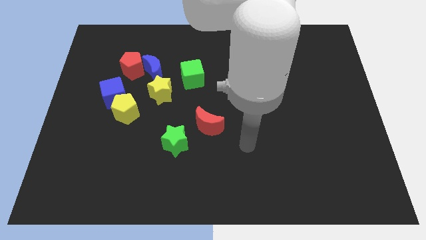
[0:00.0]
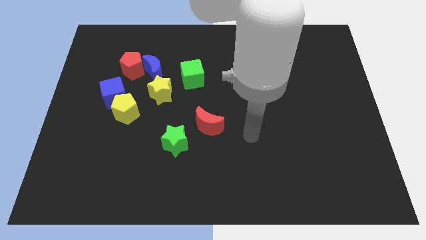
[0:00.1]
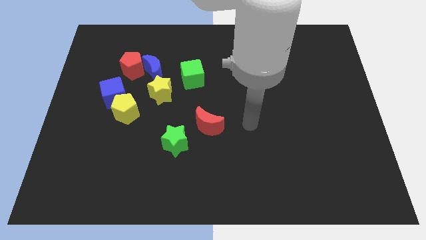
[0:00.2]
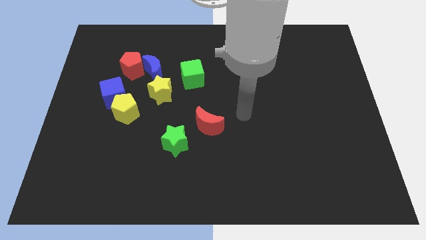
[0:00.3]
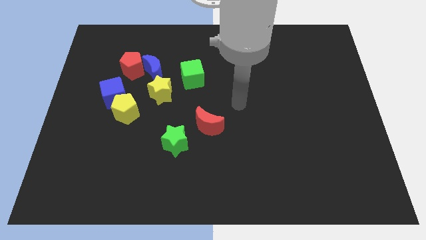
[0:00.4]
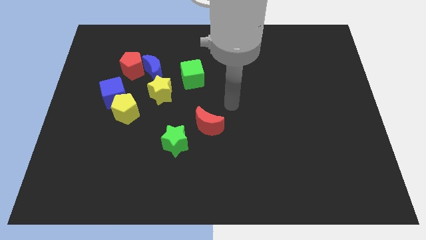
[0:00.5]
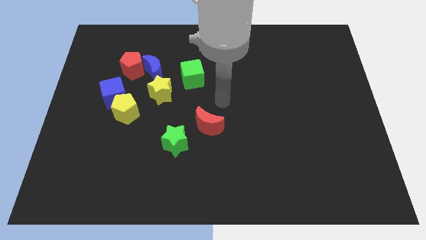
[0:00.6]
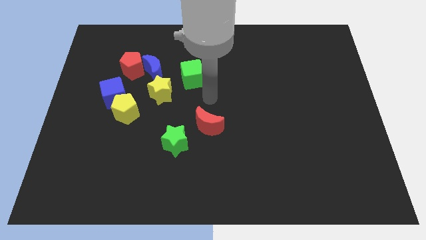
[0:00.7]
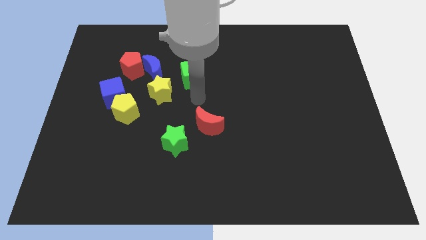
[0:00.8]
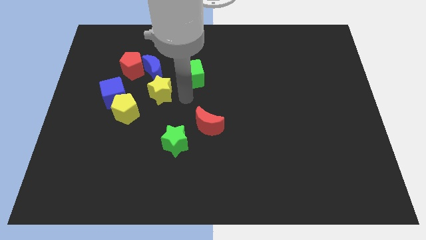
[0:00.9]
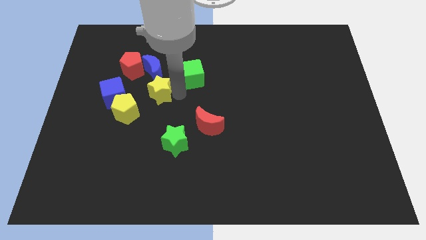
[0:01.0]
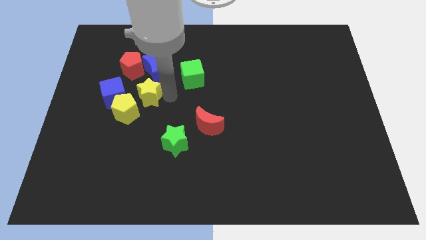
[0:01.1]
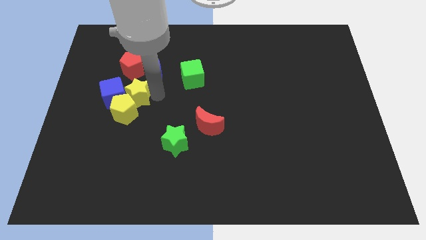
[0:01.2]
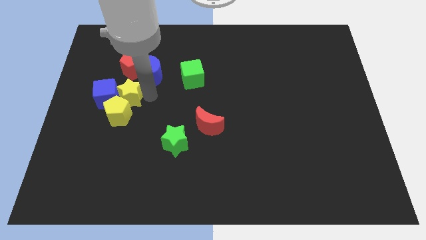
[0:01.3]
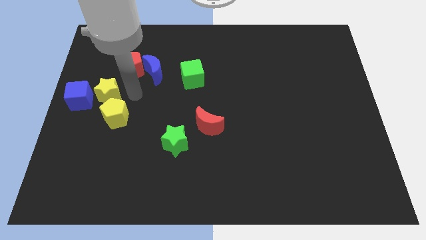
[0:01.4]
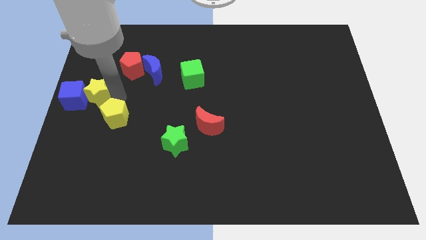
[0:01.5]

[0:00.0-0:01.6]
pull the yellow pentagon apart from the blue cube and yellow star

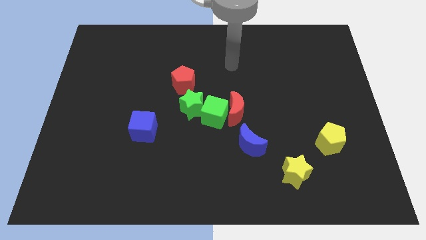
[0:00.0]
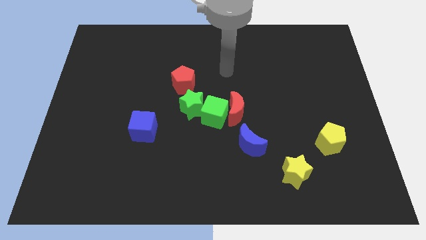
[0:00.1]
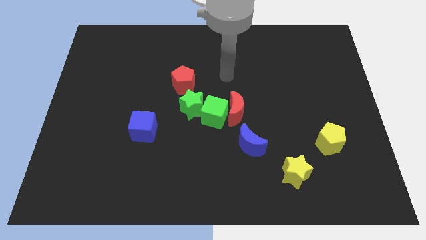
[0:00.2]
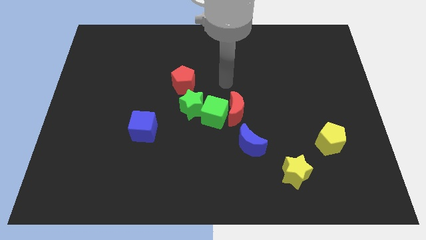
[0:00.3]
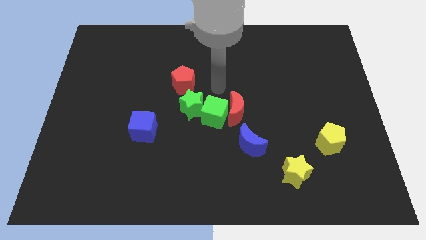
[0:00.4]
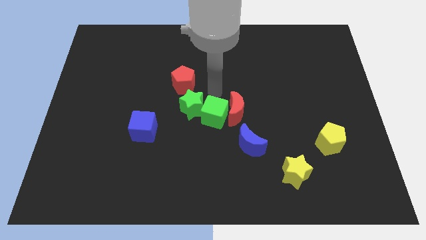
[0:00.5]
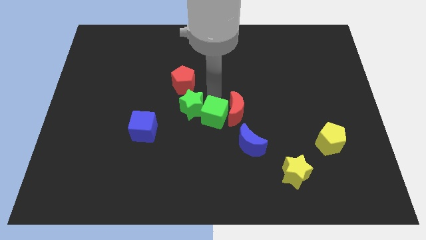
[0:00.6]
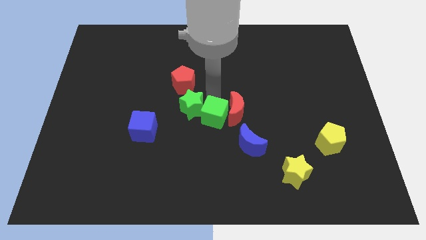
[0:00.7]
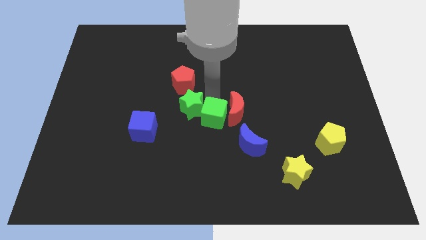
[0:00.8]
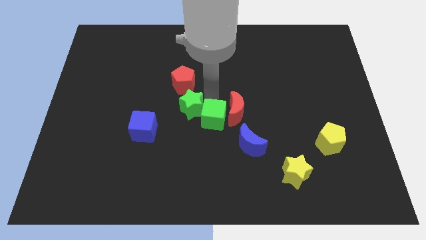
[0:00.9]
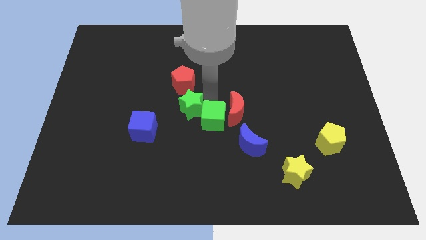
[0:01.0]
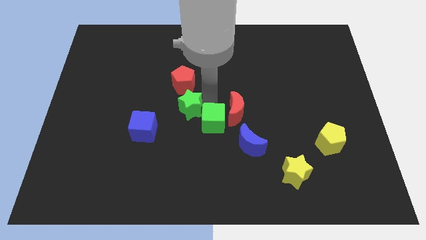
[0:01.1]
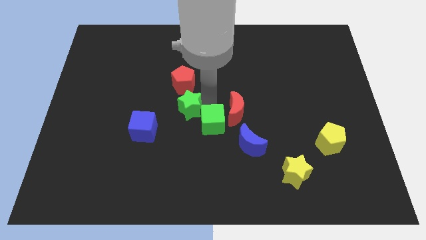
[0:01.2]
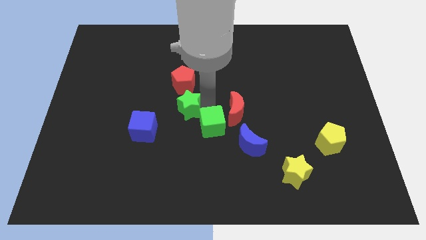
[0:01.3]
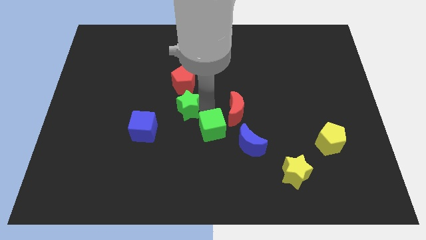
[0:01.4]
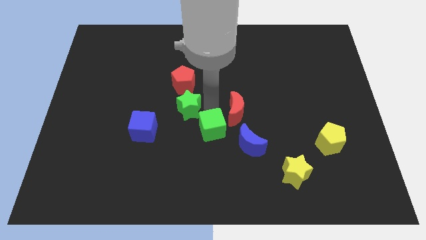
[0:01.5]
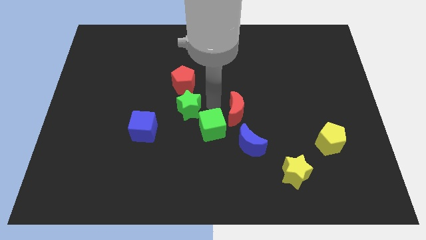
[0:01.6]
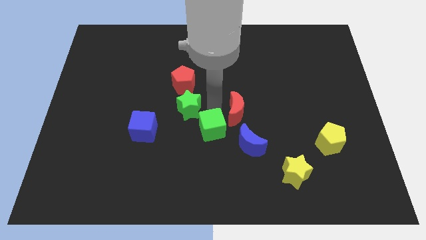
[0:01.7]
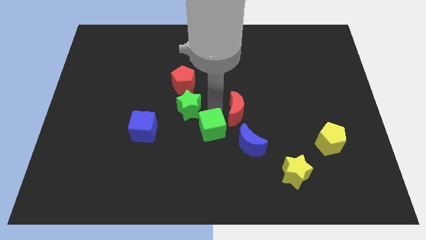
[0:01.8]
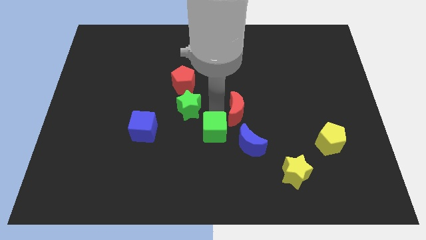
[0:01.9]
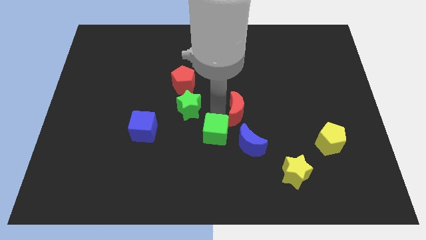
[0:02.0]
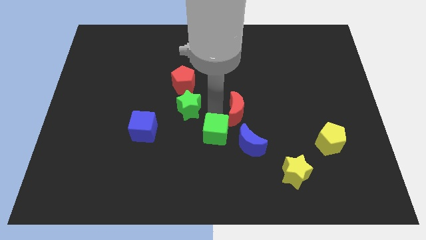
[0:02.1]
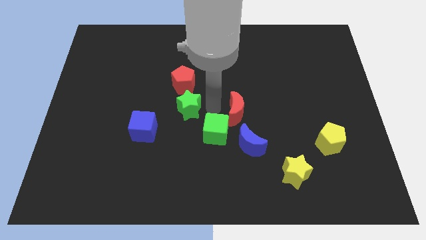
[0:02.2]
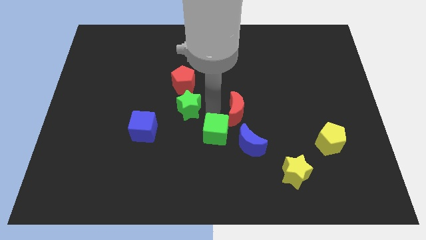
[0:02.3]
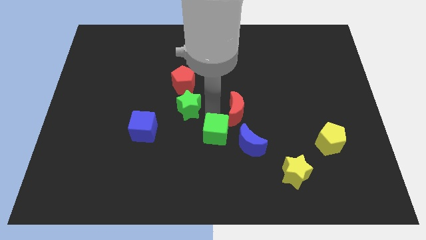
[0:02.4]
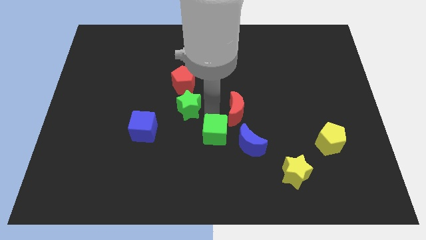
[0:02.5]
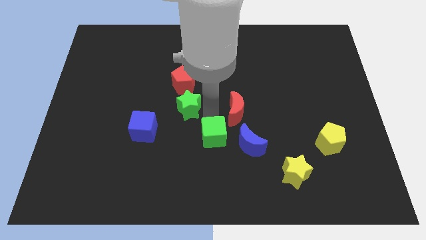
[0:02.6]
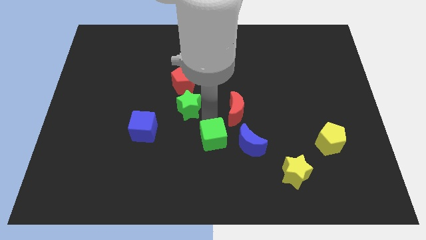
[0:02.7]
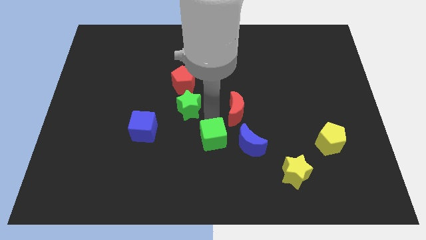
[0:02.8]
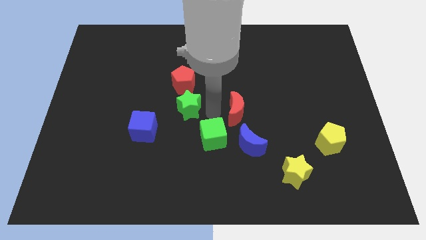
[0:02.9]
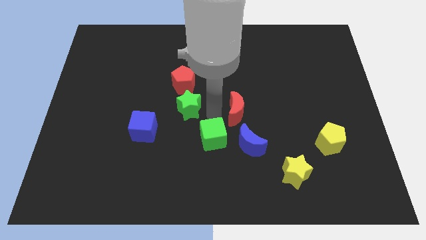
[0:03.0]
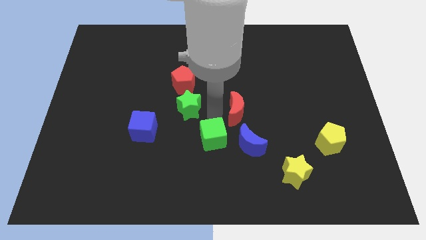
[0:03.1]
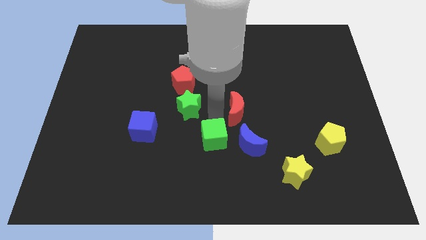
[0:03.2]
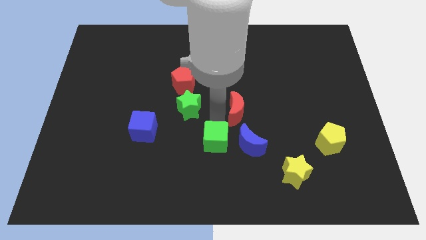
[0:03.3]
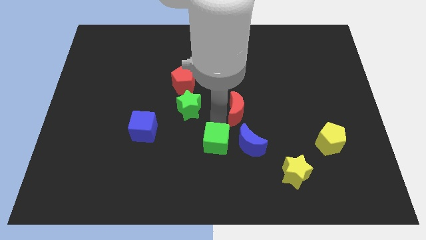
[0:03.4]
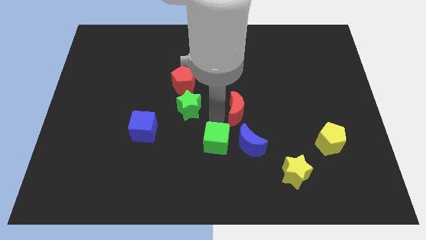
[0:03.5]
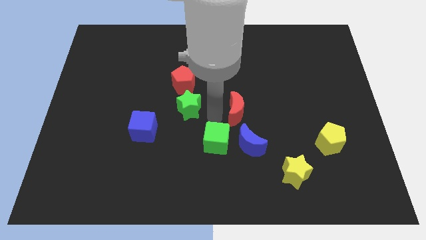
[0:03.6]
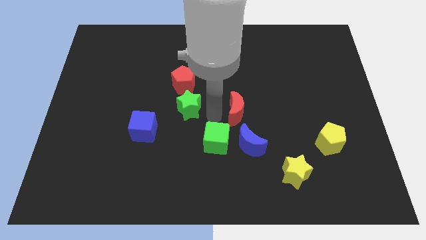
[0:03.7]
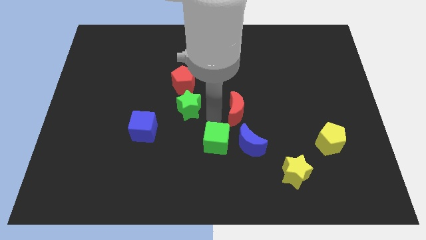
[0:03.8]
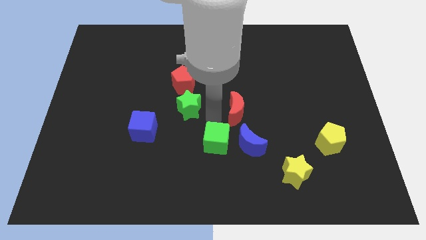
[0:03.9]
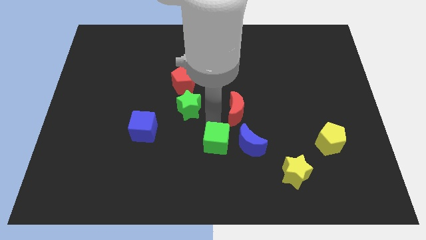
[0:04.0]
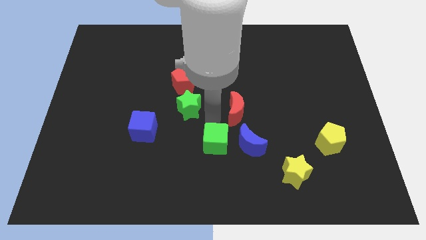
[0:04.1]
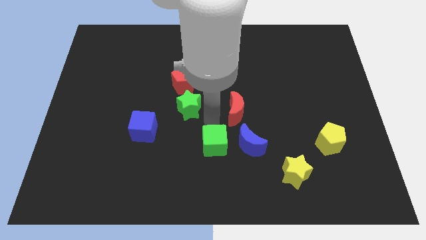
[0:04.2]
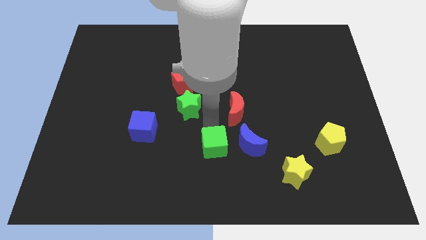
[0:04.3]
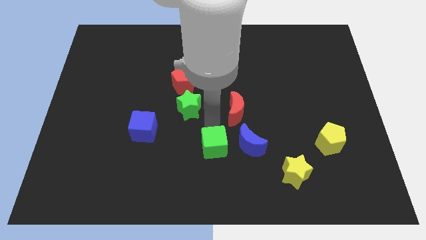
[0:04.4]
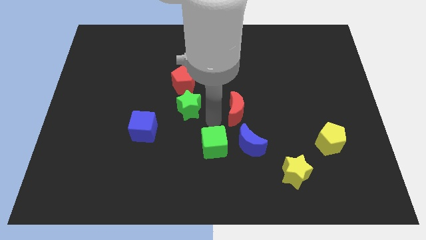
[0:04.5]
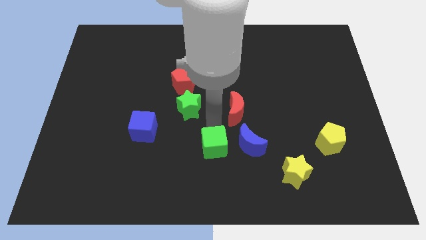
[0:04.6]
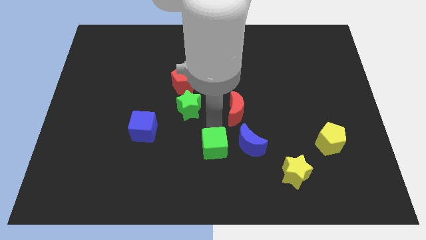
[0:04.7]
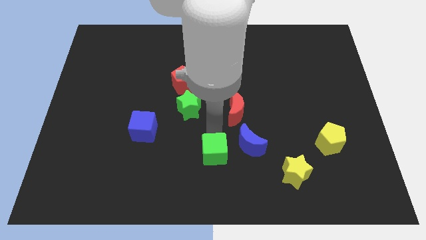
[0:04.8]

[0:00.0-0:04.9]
separate the green cube from the red moon and green star

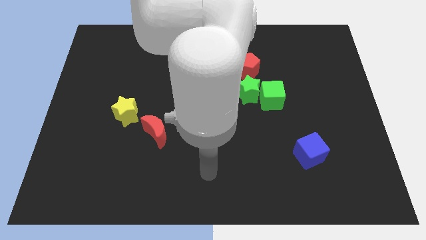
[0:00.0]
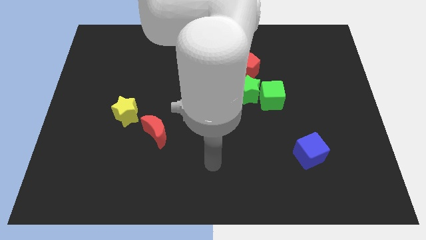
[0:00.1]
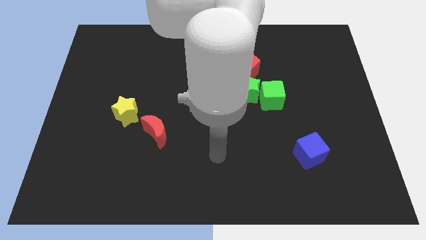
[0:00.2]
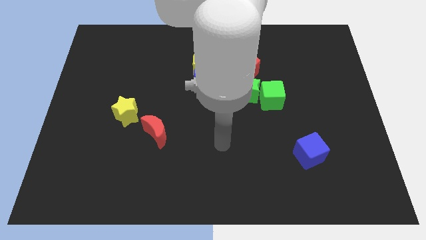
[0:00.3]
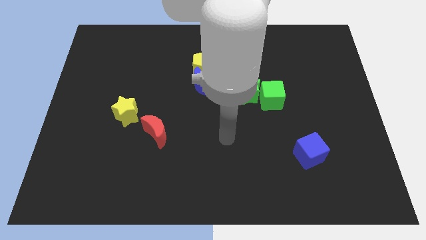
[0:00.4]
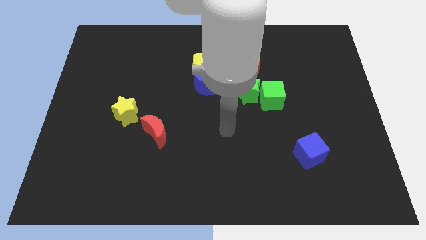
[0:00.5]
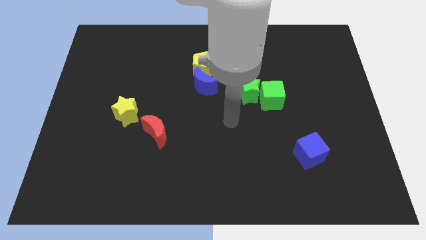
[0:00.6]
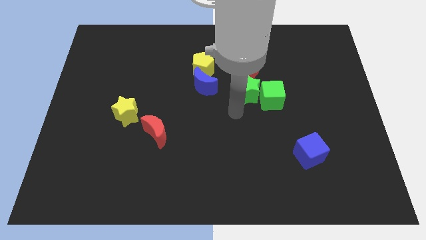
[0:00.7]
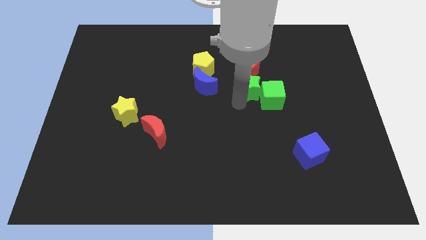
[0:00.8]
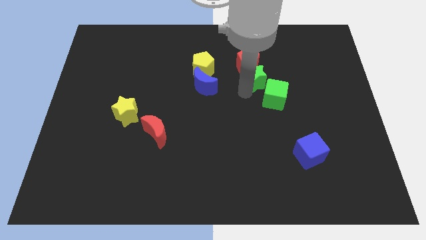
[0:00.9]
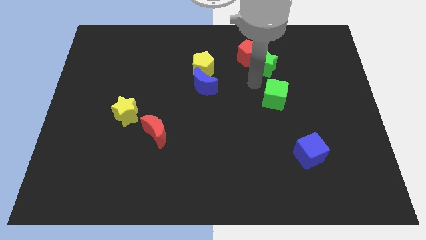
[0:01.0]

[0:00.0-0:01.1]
pull the green cube apart from the green star

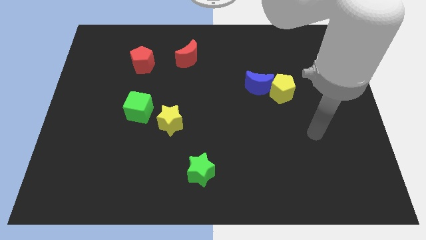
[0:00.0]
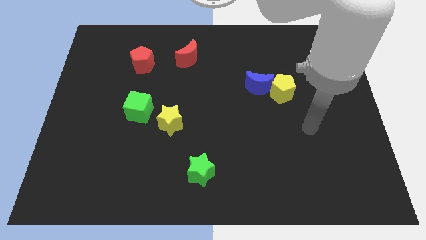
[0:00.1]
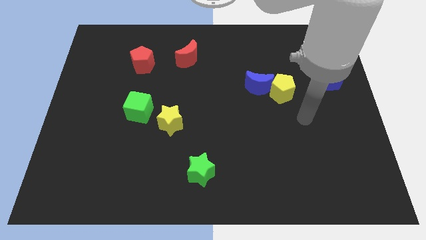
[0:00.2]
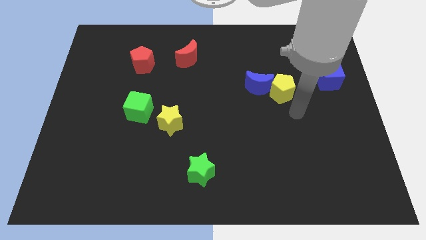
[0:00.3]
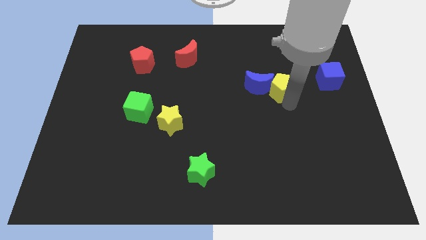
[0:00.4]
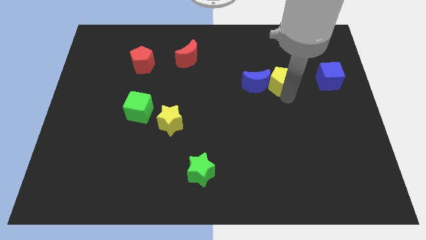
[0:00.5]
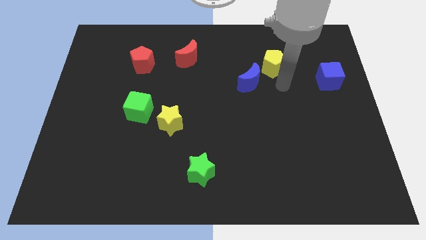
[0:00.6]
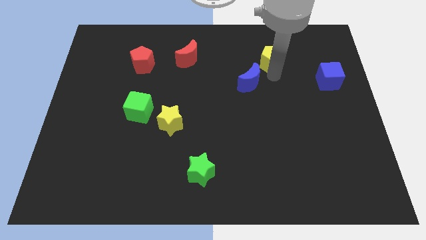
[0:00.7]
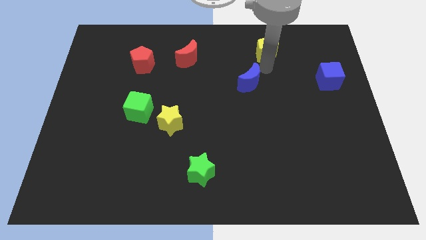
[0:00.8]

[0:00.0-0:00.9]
move the blue moon away from the yellow pentagon

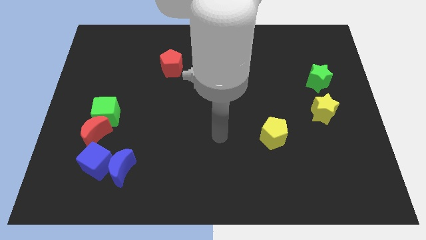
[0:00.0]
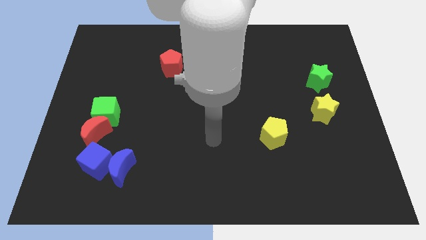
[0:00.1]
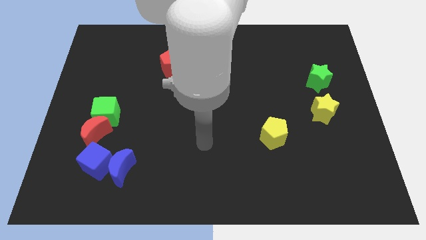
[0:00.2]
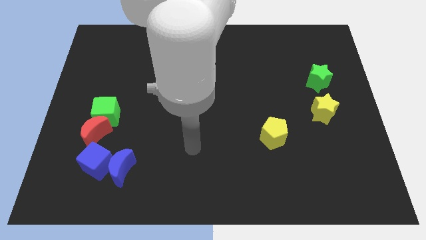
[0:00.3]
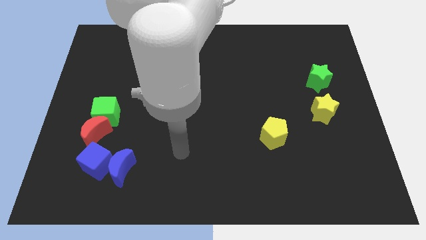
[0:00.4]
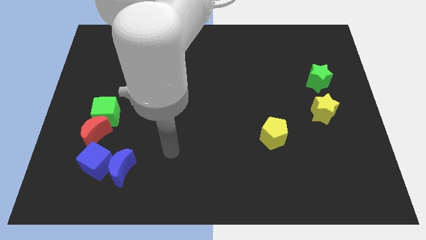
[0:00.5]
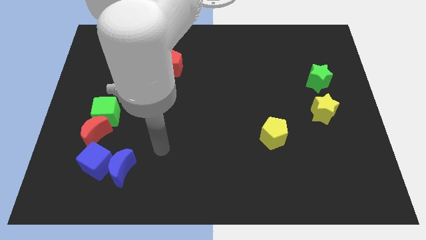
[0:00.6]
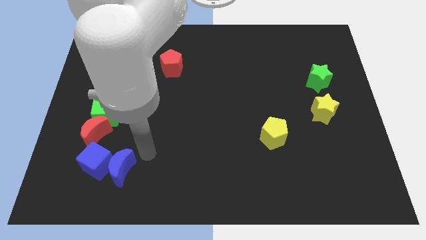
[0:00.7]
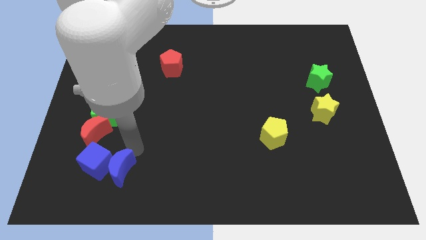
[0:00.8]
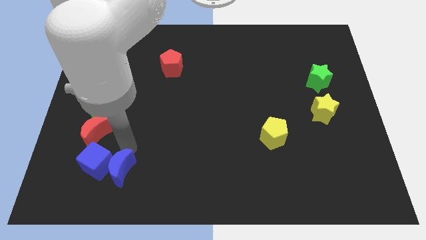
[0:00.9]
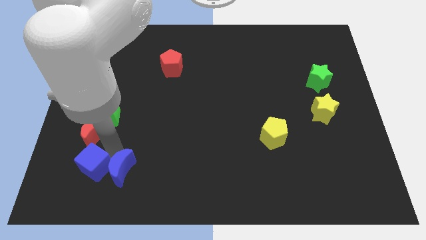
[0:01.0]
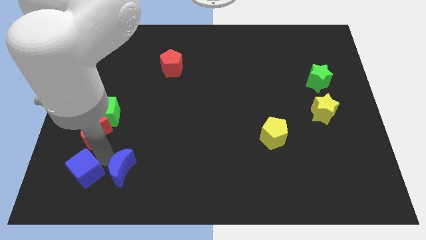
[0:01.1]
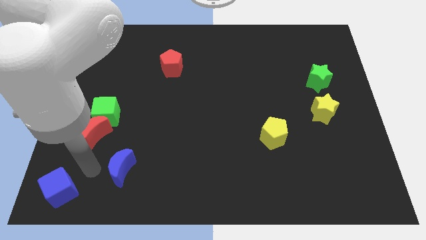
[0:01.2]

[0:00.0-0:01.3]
pull the blue moon apart from the blue cube
